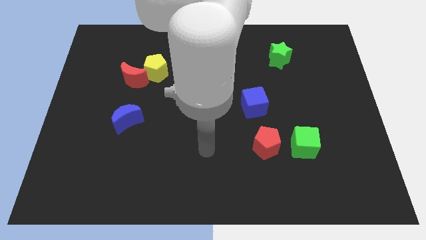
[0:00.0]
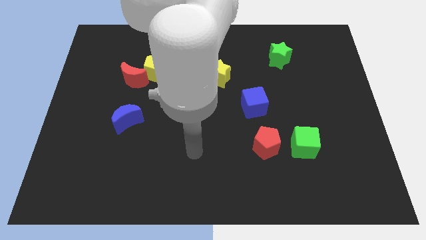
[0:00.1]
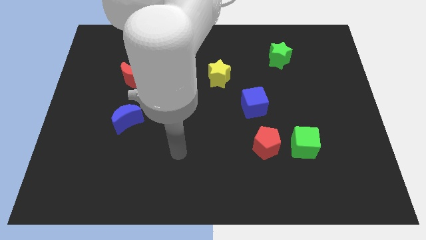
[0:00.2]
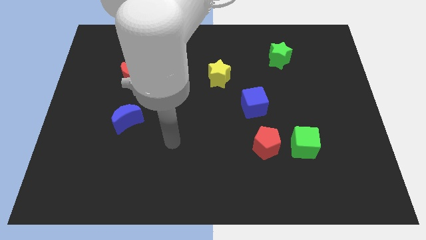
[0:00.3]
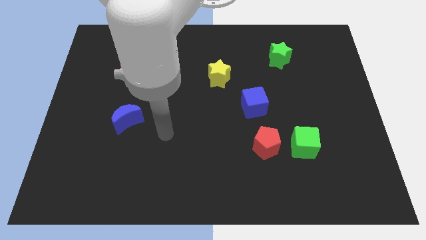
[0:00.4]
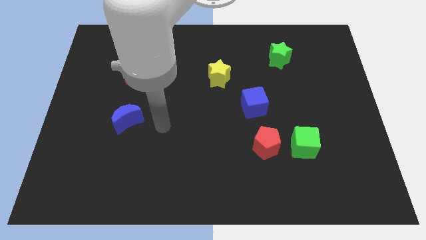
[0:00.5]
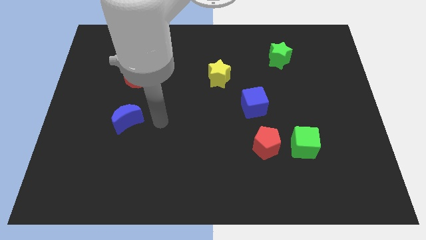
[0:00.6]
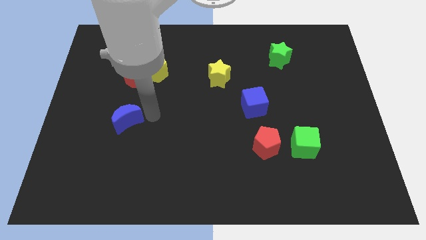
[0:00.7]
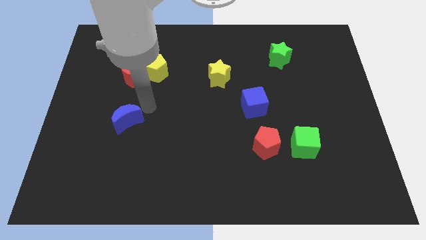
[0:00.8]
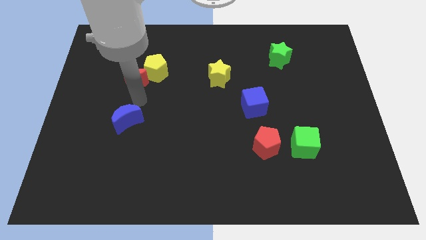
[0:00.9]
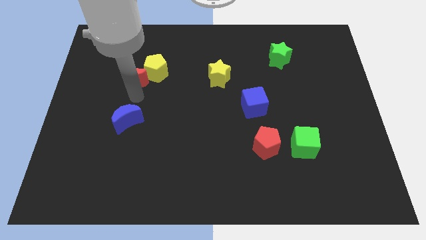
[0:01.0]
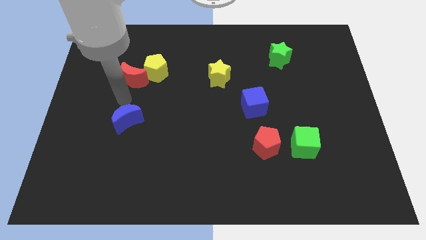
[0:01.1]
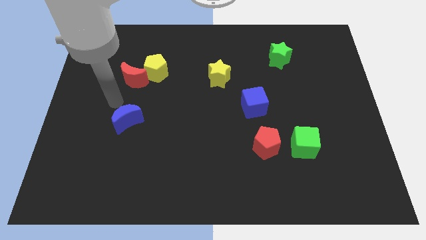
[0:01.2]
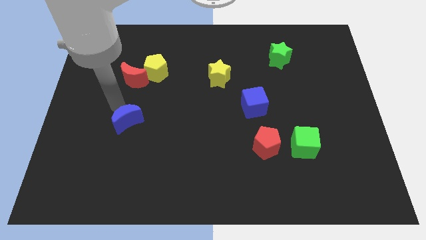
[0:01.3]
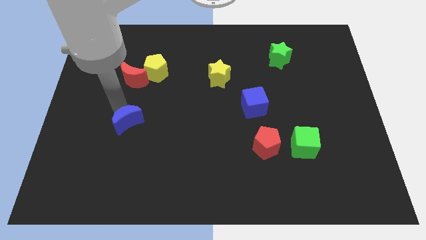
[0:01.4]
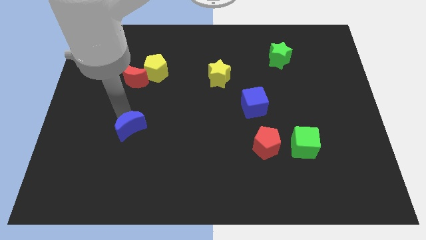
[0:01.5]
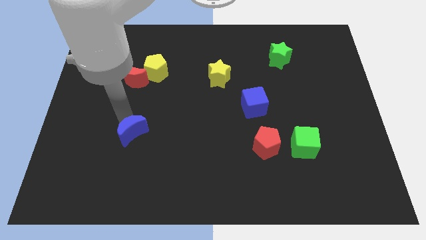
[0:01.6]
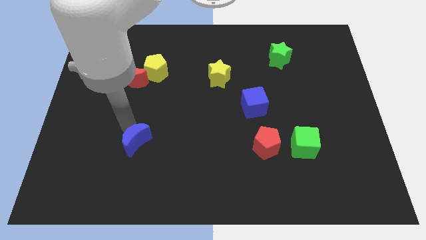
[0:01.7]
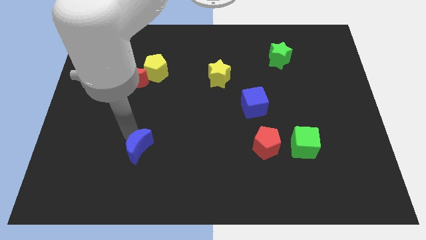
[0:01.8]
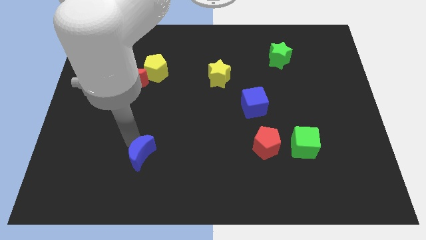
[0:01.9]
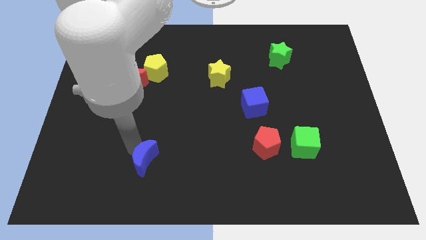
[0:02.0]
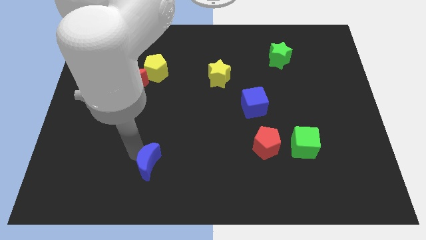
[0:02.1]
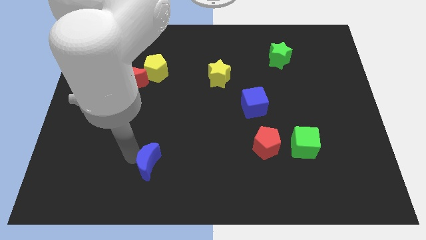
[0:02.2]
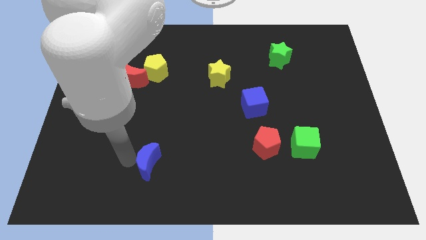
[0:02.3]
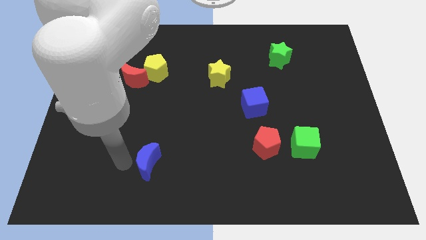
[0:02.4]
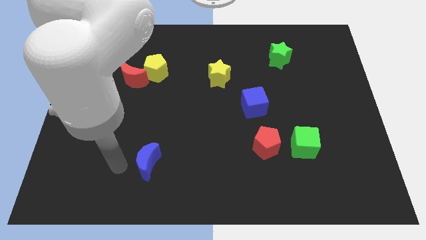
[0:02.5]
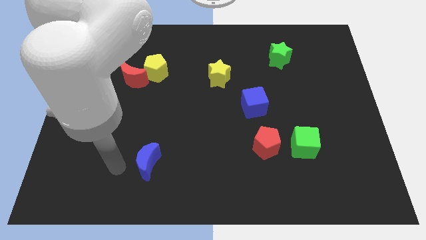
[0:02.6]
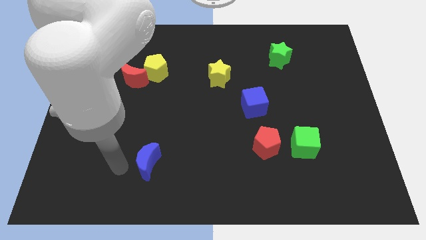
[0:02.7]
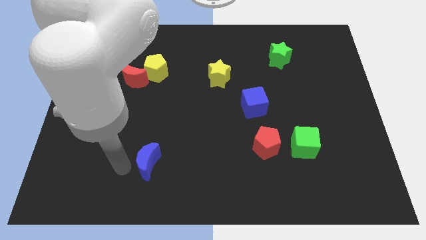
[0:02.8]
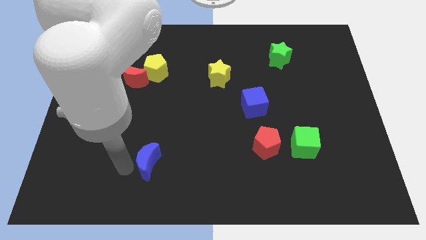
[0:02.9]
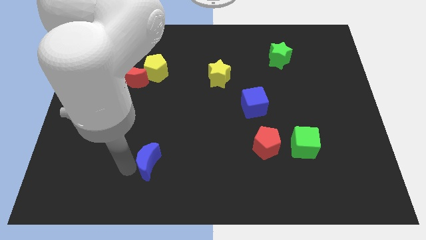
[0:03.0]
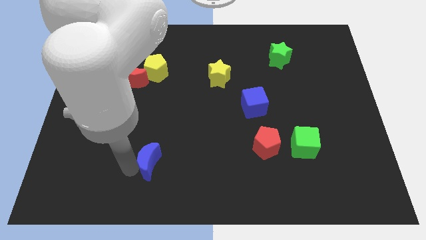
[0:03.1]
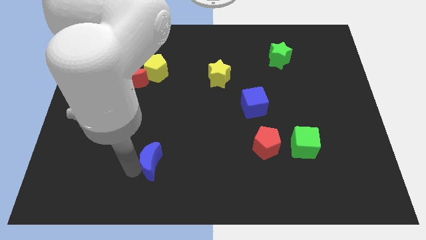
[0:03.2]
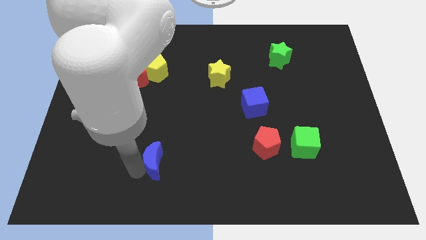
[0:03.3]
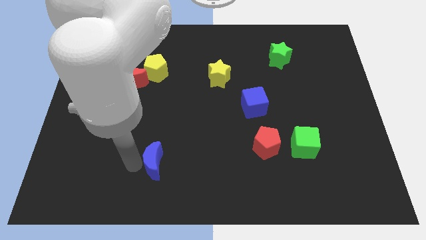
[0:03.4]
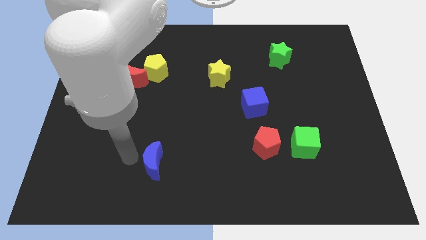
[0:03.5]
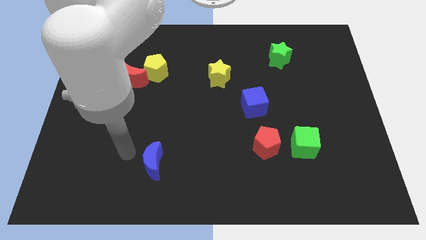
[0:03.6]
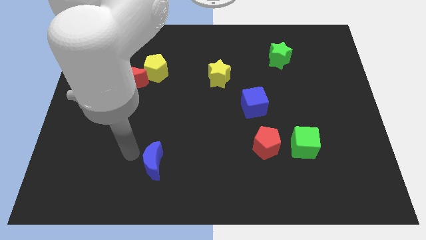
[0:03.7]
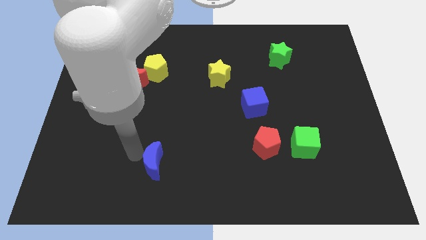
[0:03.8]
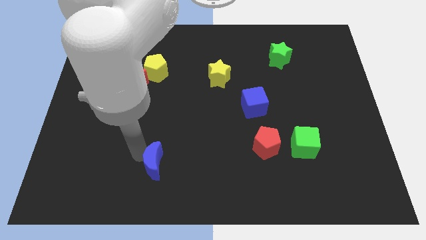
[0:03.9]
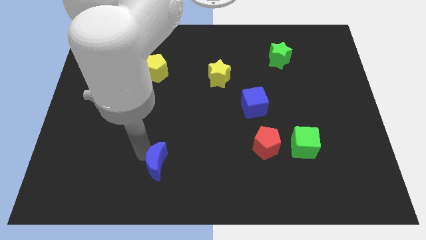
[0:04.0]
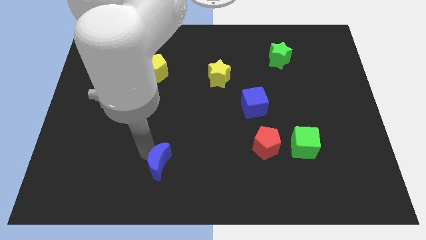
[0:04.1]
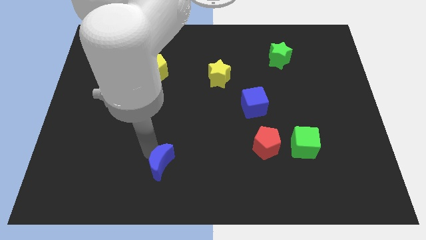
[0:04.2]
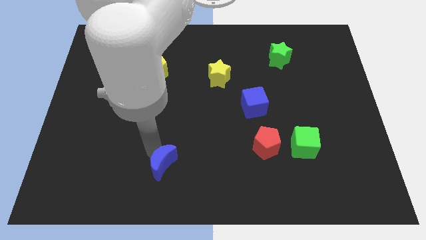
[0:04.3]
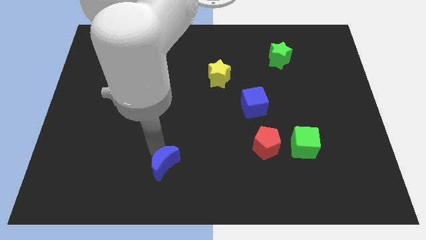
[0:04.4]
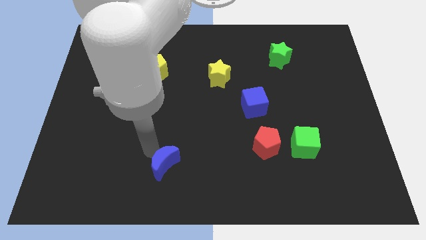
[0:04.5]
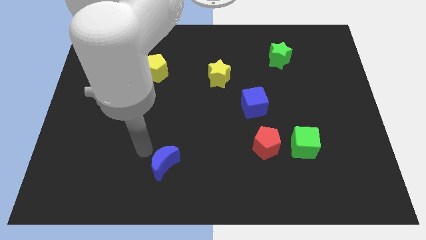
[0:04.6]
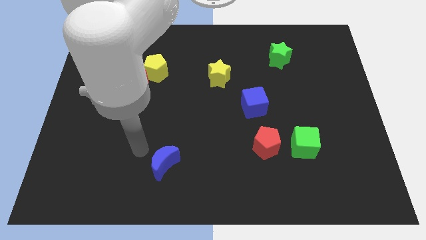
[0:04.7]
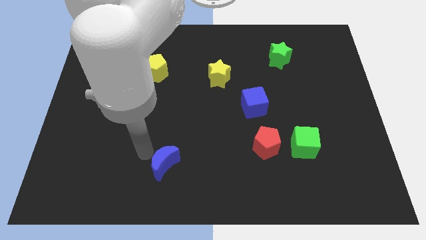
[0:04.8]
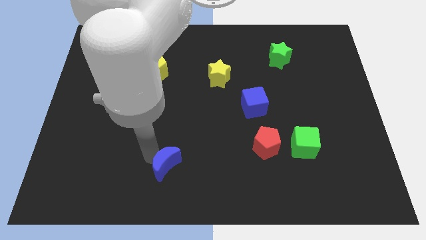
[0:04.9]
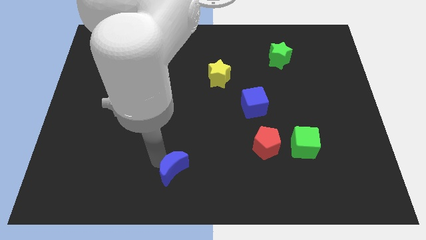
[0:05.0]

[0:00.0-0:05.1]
put the blue moon to the bottom

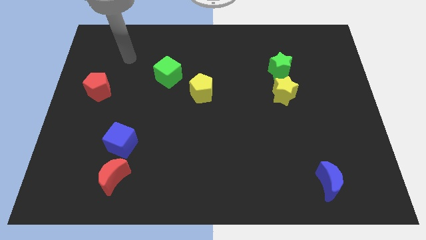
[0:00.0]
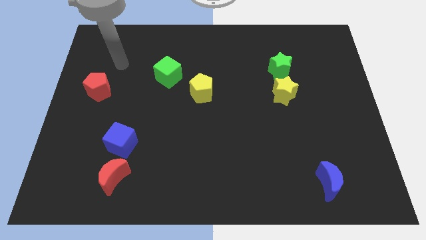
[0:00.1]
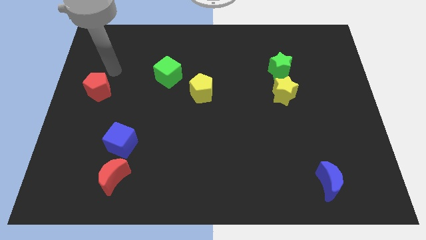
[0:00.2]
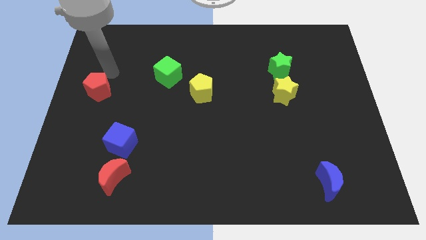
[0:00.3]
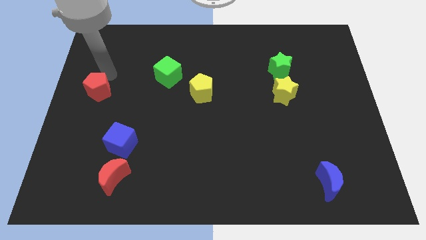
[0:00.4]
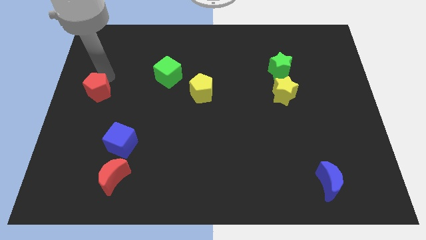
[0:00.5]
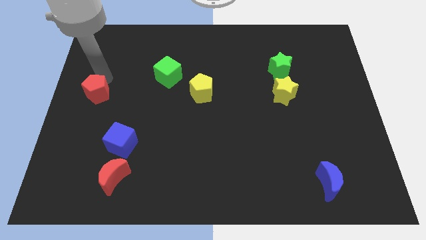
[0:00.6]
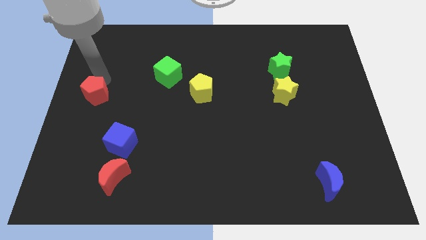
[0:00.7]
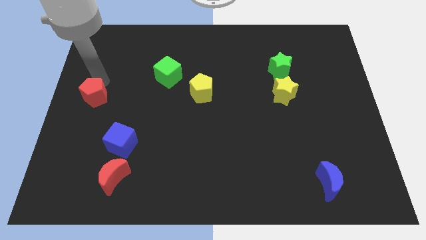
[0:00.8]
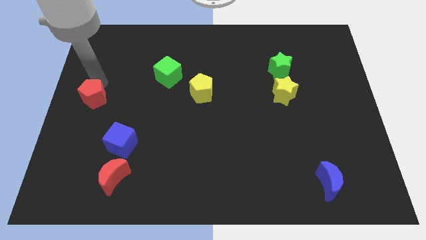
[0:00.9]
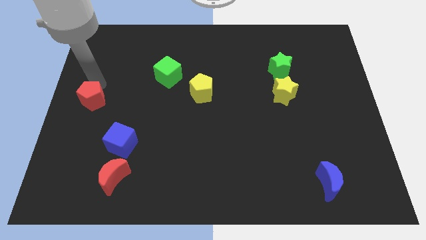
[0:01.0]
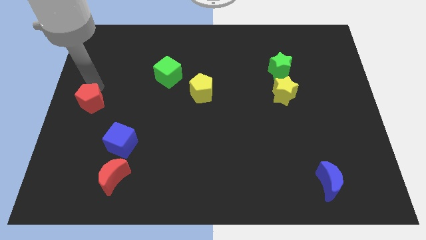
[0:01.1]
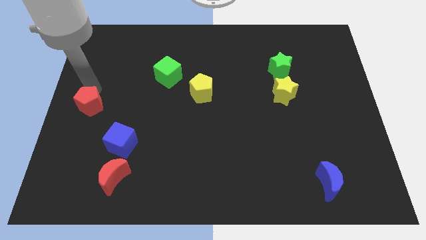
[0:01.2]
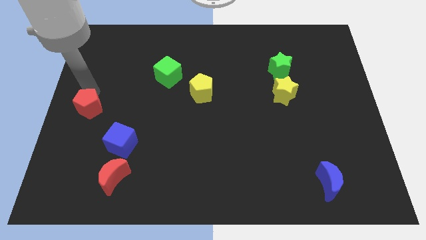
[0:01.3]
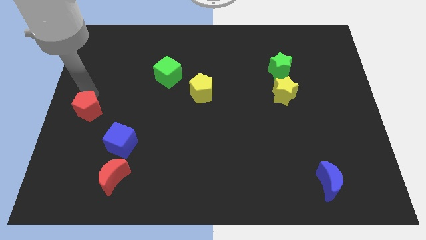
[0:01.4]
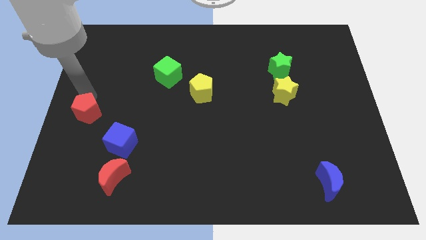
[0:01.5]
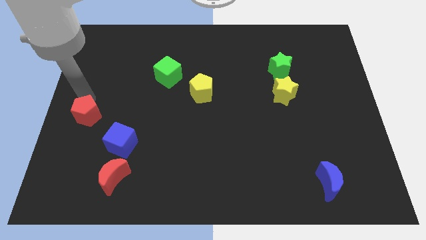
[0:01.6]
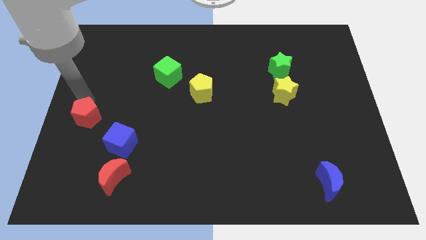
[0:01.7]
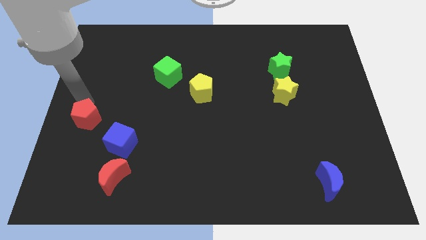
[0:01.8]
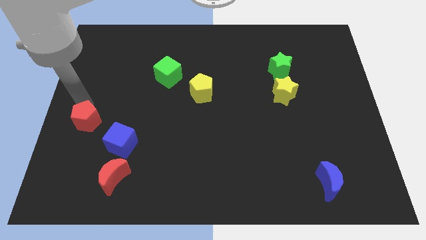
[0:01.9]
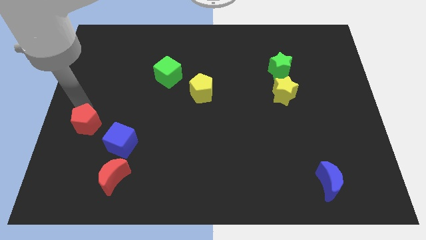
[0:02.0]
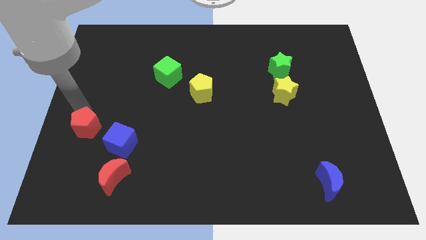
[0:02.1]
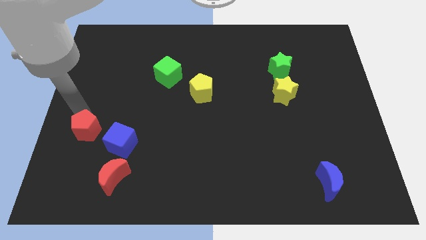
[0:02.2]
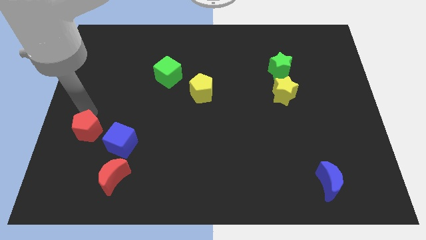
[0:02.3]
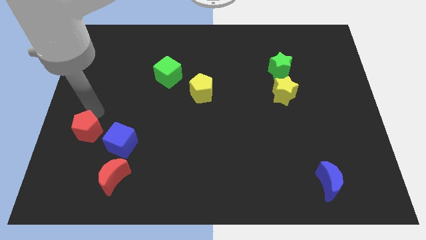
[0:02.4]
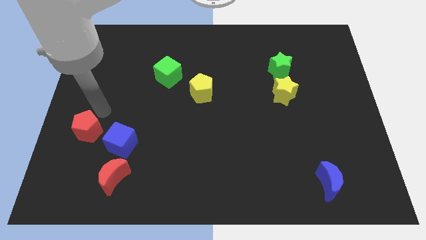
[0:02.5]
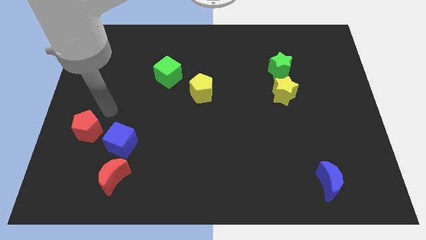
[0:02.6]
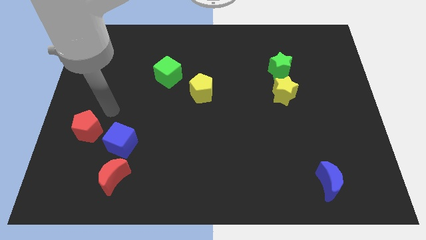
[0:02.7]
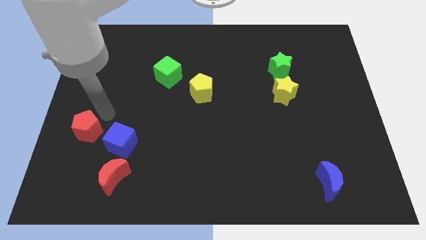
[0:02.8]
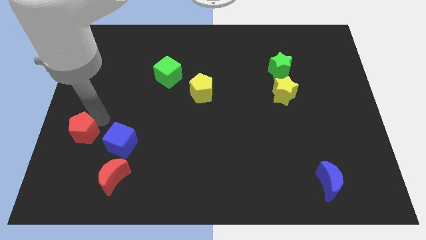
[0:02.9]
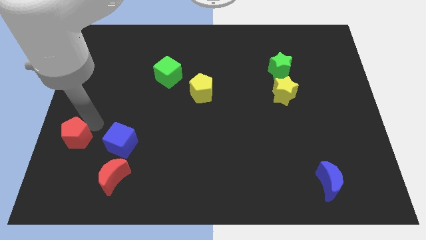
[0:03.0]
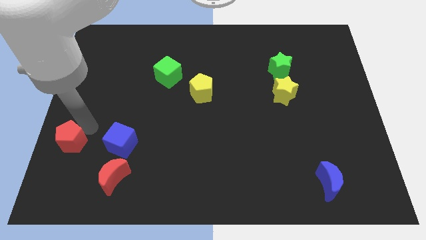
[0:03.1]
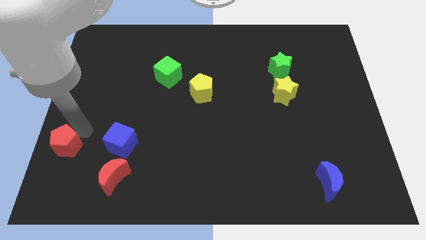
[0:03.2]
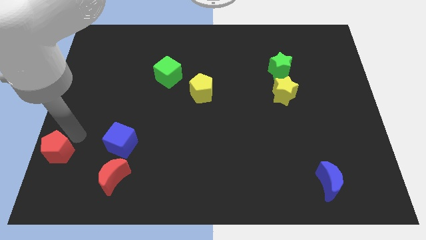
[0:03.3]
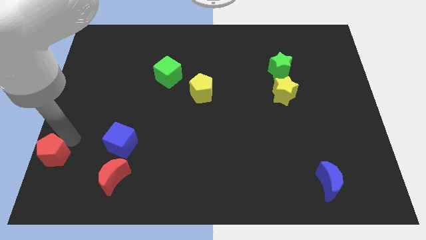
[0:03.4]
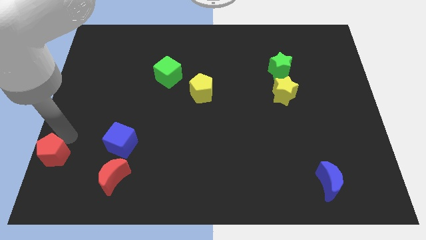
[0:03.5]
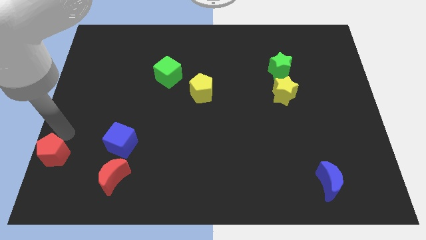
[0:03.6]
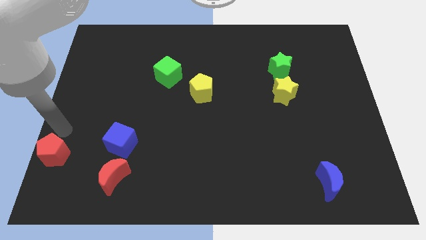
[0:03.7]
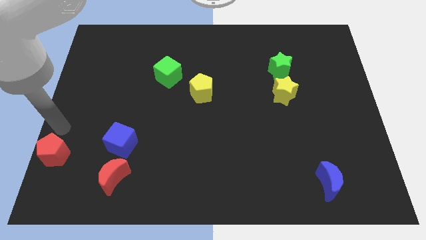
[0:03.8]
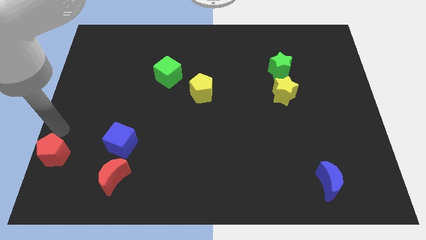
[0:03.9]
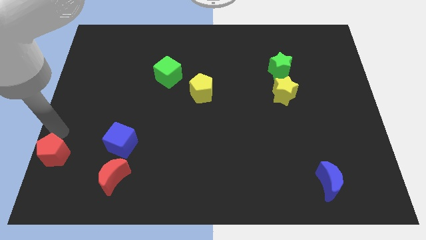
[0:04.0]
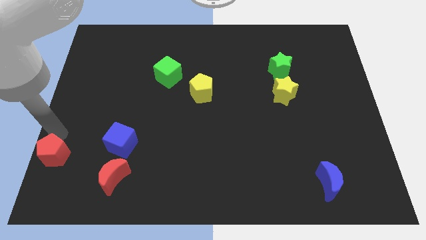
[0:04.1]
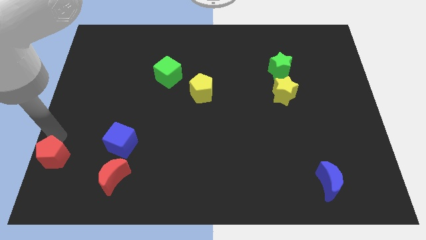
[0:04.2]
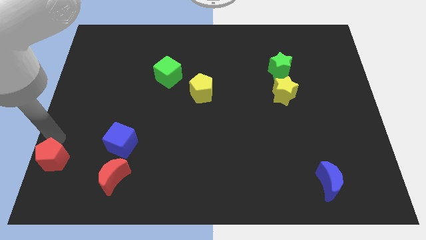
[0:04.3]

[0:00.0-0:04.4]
move the red pentagon to the bottom left of the board
